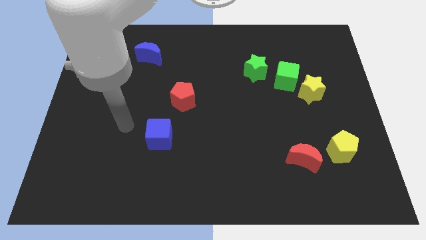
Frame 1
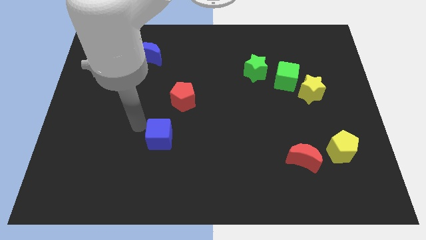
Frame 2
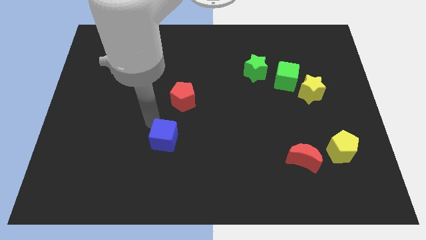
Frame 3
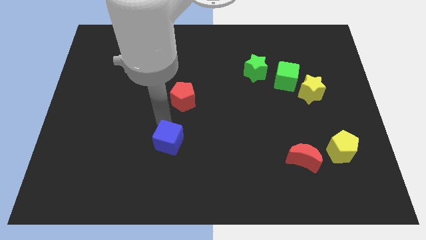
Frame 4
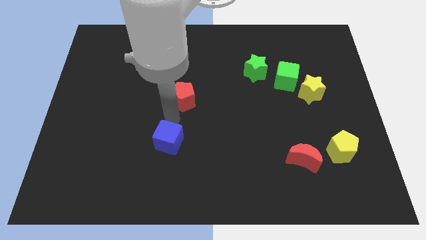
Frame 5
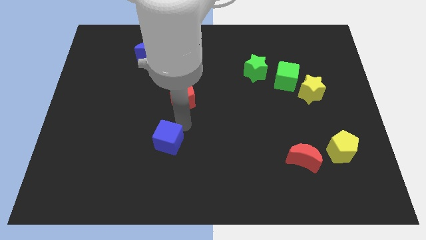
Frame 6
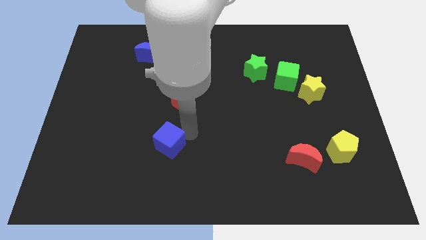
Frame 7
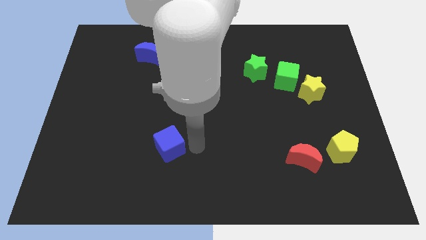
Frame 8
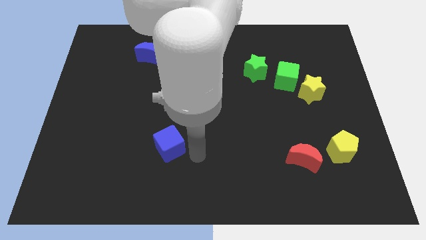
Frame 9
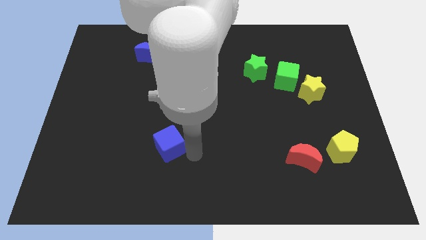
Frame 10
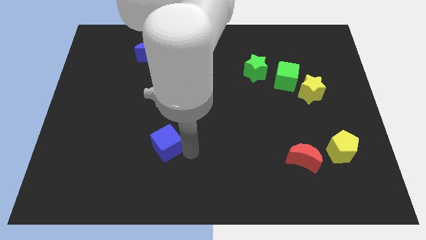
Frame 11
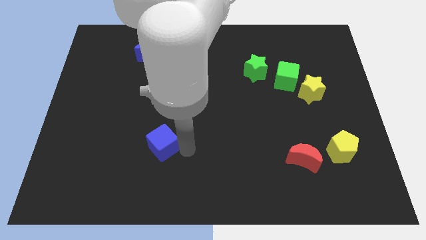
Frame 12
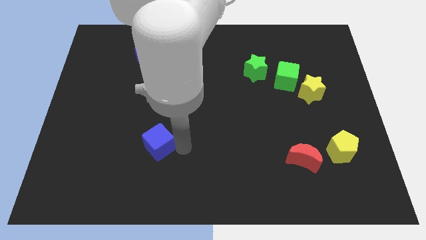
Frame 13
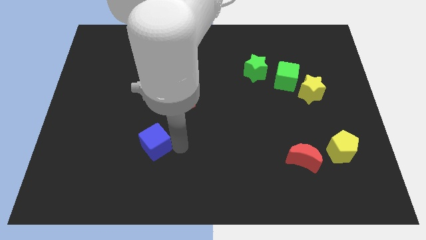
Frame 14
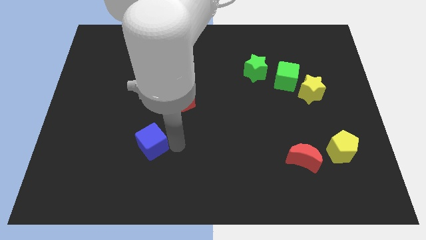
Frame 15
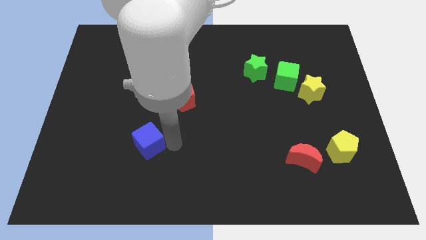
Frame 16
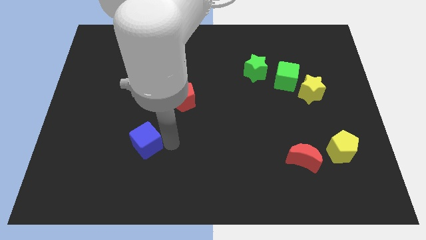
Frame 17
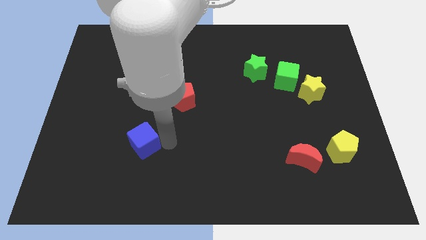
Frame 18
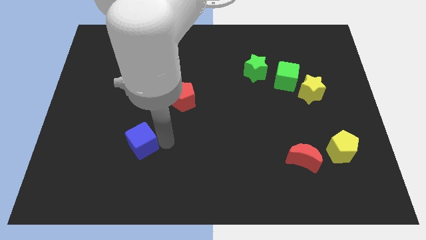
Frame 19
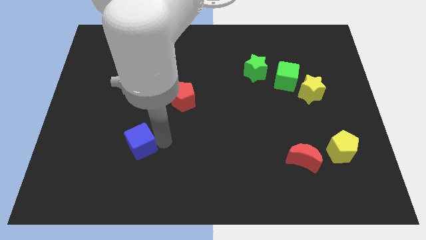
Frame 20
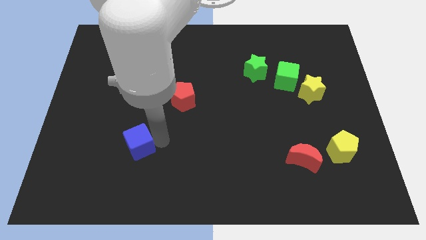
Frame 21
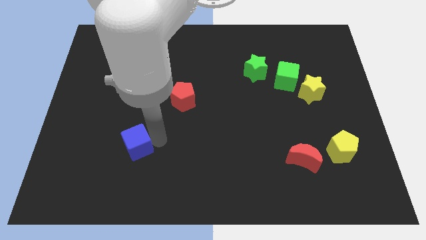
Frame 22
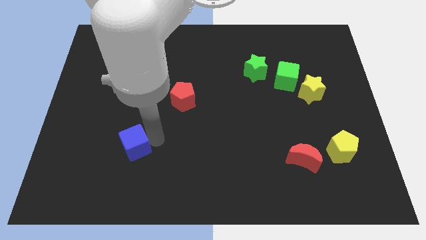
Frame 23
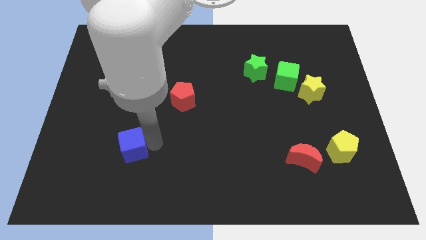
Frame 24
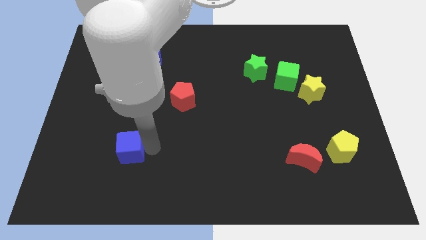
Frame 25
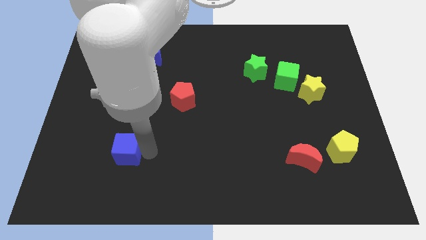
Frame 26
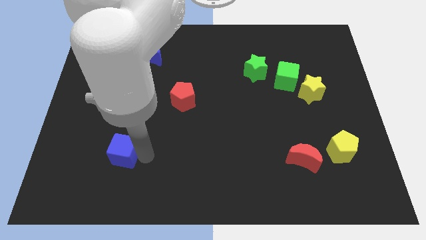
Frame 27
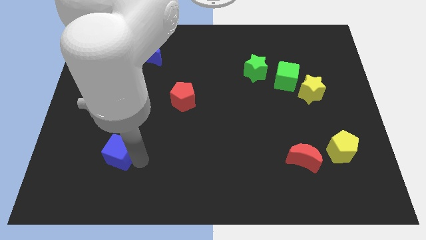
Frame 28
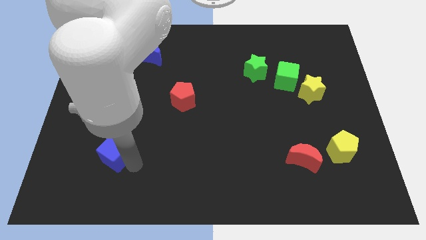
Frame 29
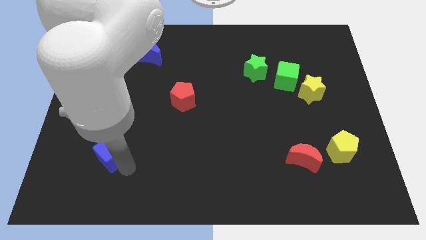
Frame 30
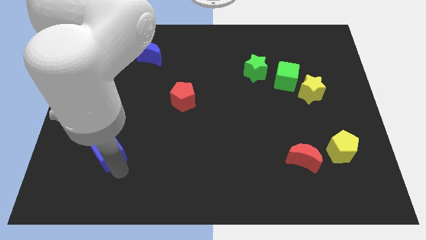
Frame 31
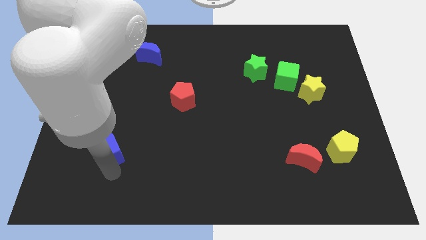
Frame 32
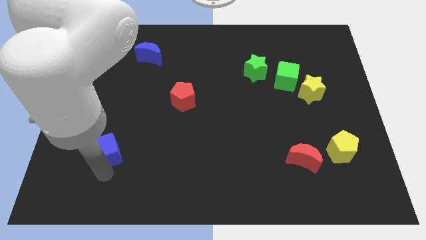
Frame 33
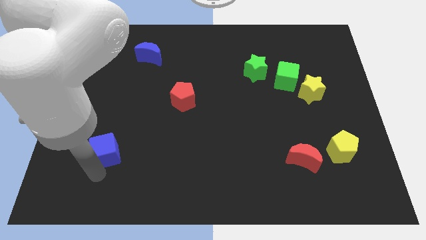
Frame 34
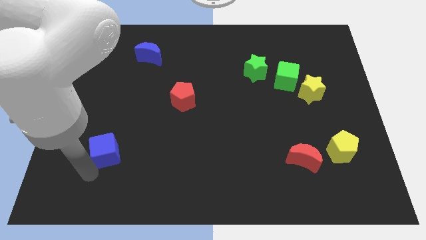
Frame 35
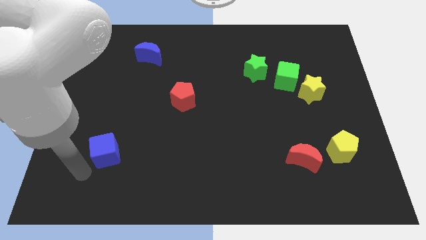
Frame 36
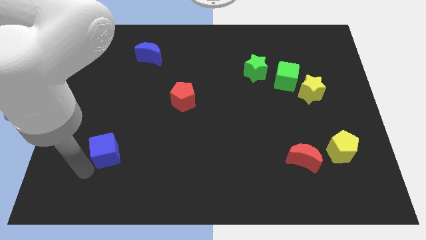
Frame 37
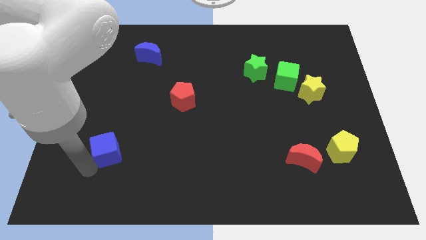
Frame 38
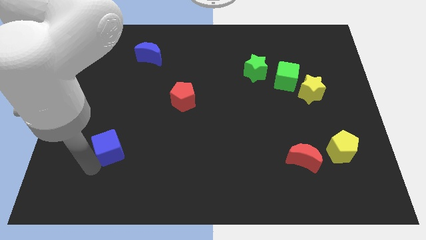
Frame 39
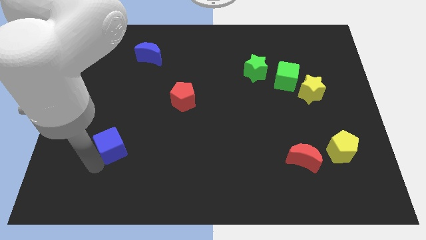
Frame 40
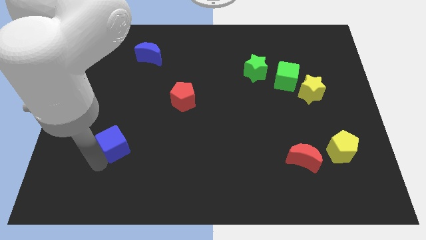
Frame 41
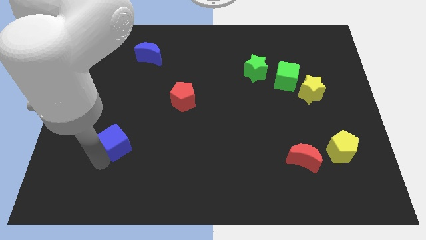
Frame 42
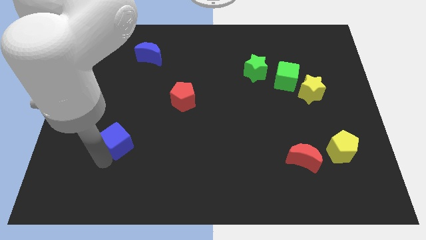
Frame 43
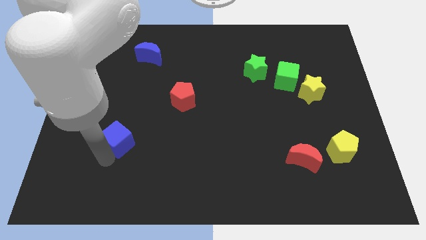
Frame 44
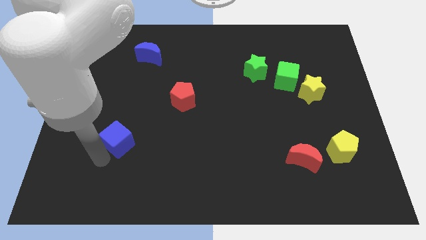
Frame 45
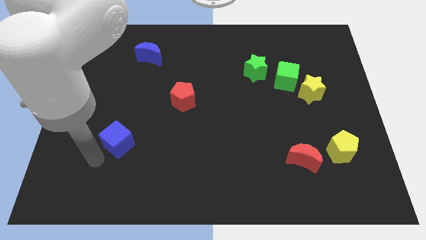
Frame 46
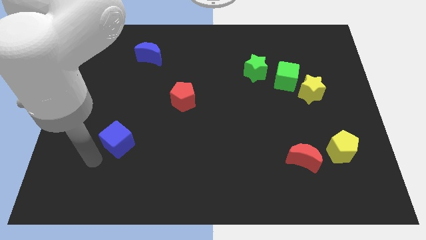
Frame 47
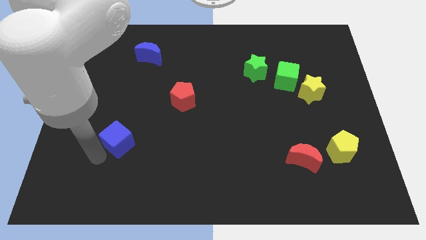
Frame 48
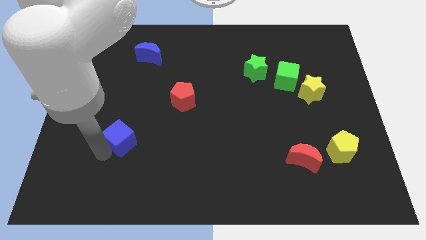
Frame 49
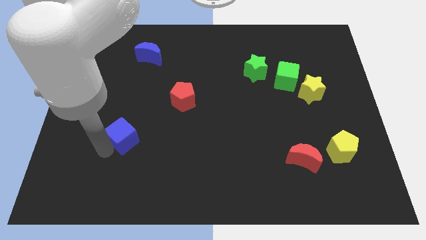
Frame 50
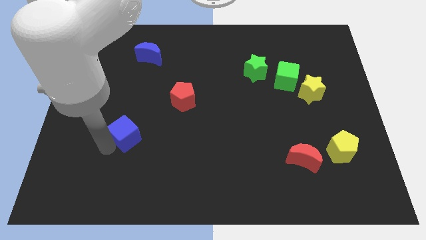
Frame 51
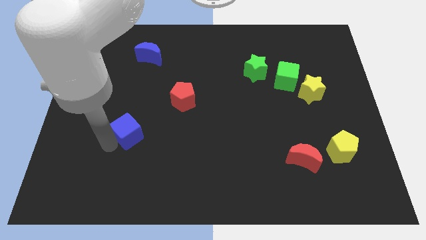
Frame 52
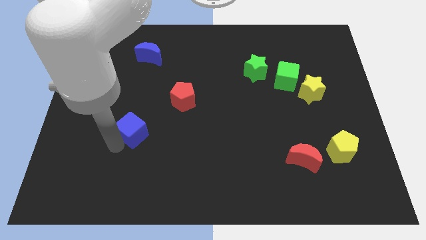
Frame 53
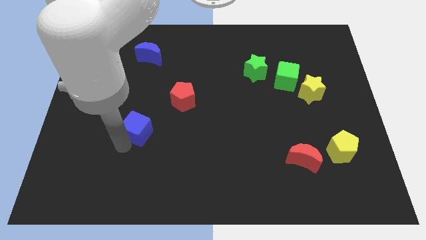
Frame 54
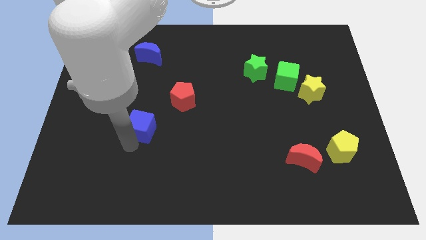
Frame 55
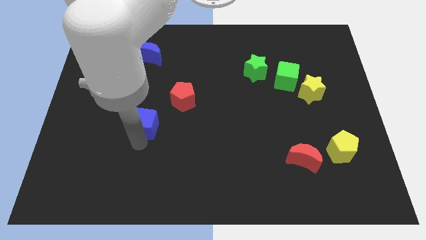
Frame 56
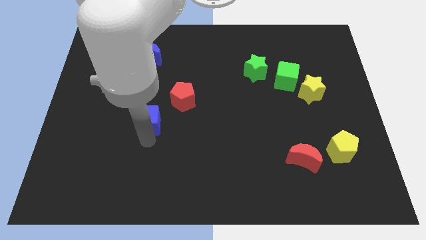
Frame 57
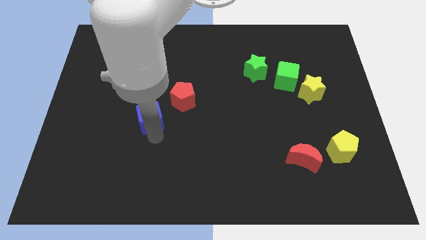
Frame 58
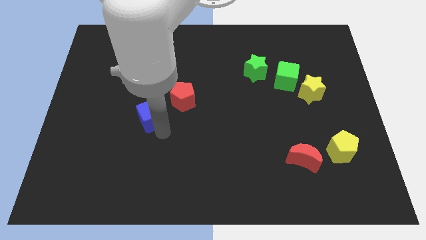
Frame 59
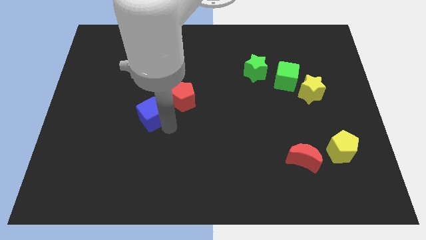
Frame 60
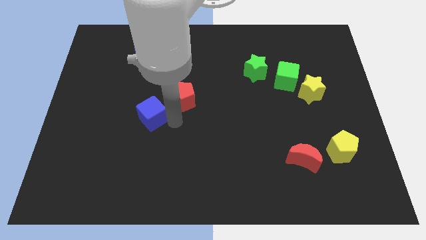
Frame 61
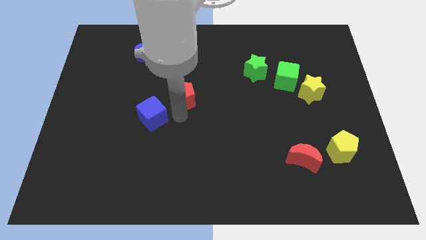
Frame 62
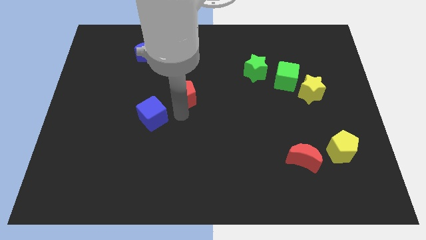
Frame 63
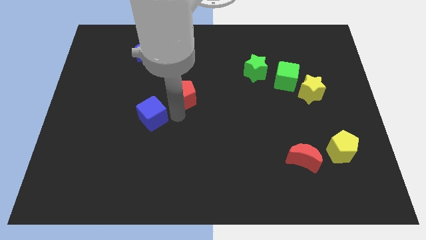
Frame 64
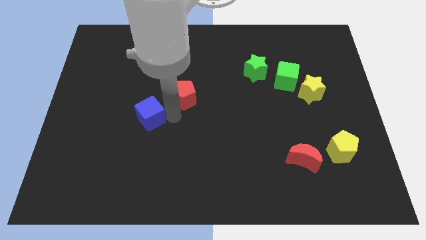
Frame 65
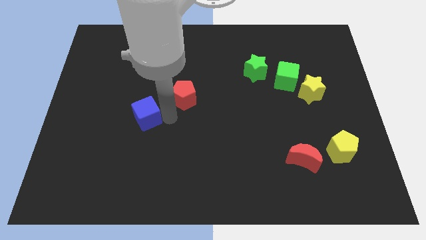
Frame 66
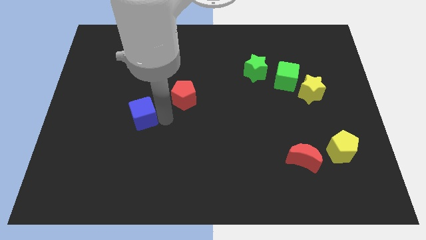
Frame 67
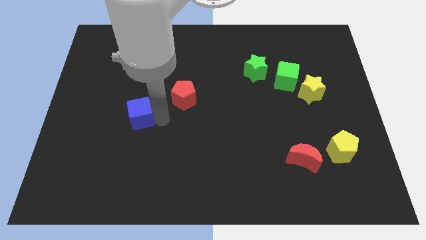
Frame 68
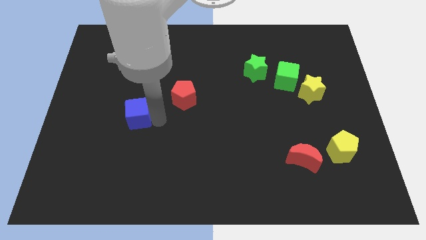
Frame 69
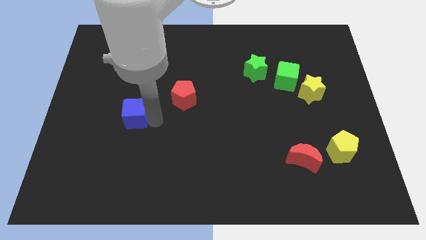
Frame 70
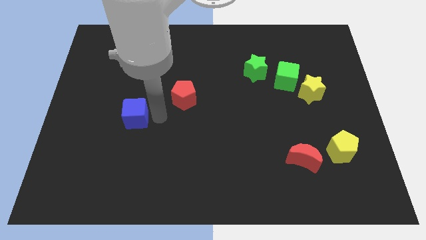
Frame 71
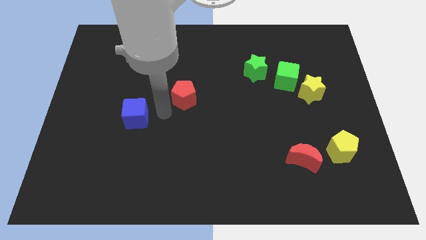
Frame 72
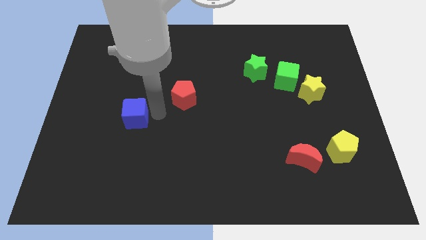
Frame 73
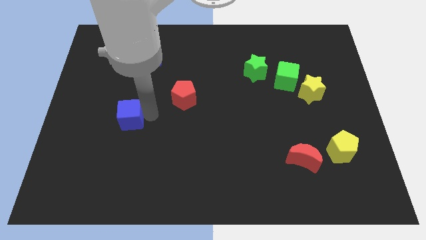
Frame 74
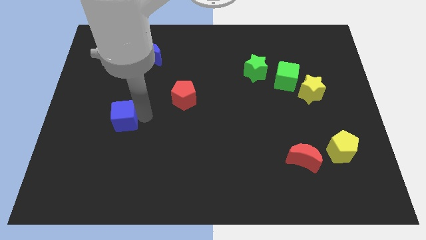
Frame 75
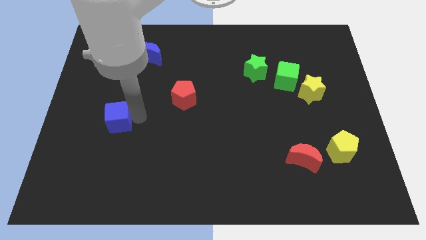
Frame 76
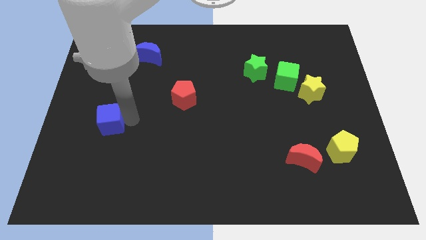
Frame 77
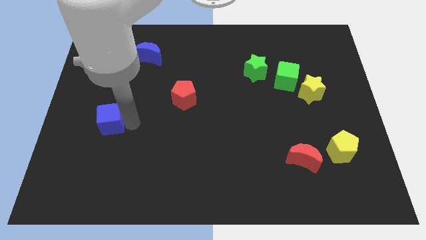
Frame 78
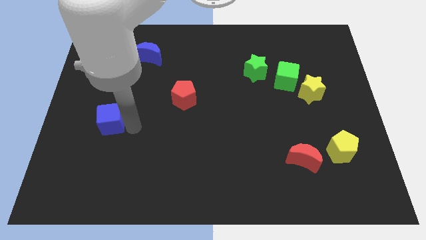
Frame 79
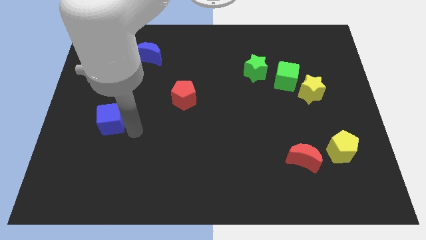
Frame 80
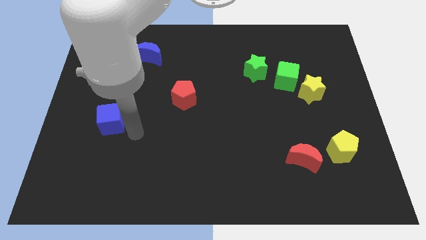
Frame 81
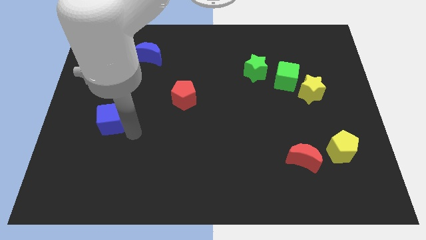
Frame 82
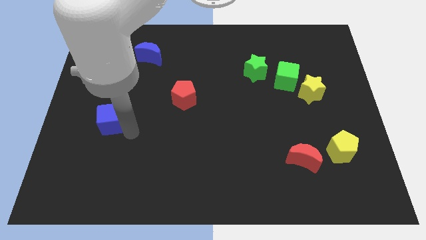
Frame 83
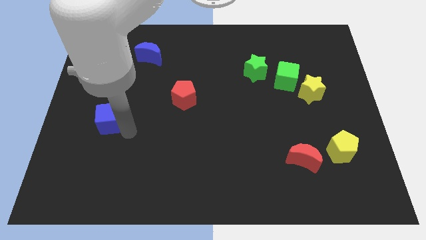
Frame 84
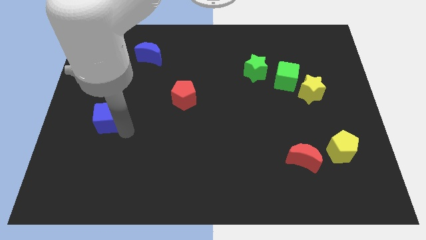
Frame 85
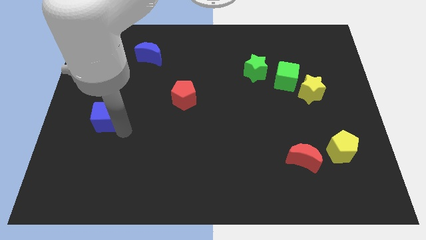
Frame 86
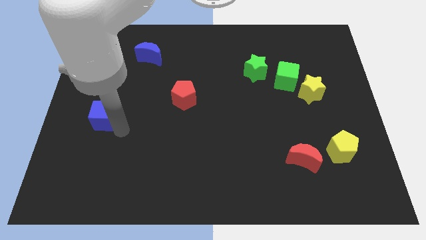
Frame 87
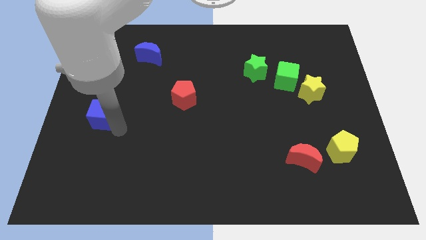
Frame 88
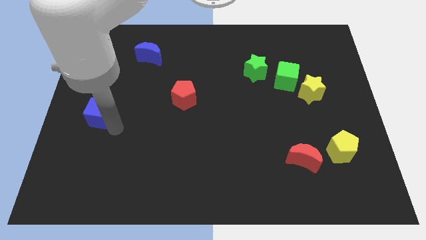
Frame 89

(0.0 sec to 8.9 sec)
slide the blue cube to the center left
